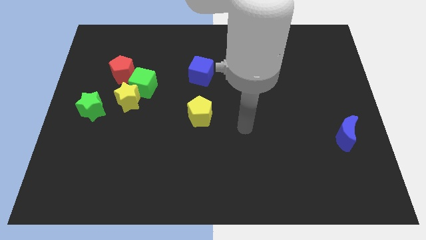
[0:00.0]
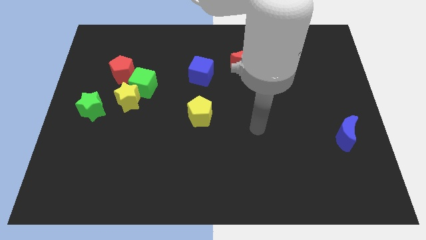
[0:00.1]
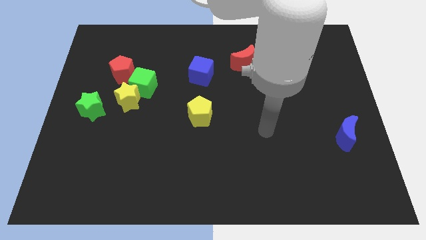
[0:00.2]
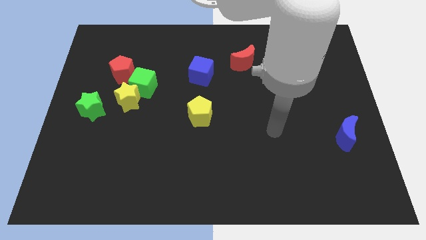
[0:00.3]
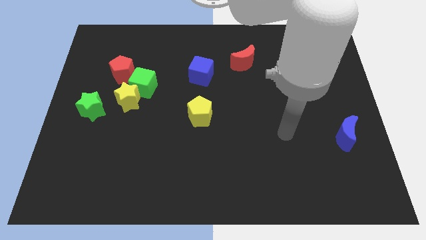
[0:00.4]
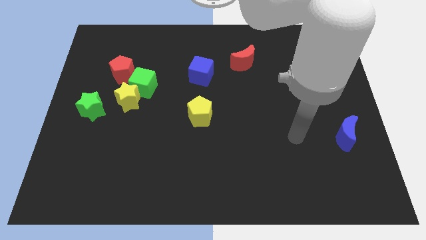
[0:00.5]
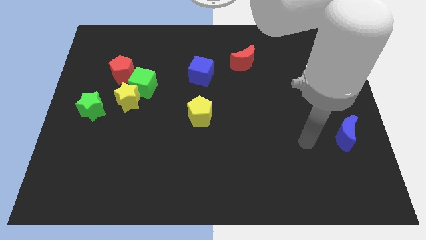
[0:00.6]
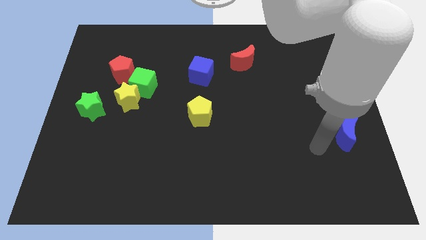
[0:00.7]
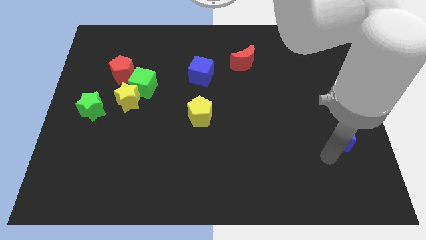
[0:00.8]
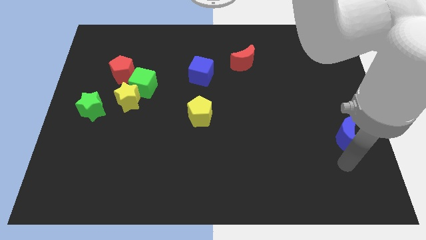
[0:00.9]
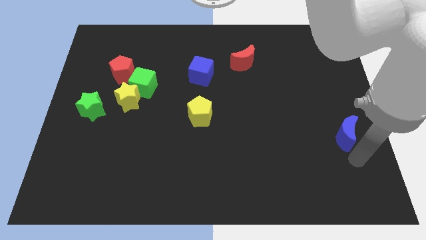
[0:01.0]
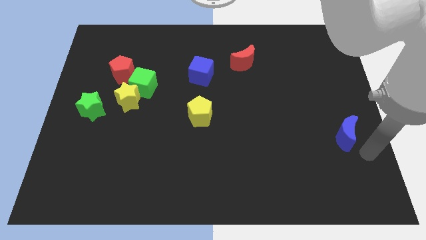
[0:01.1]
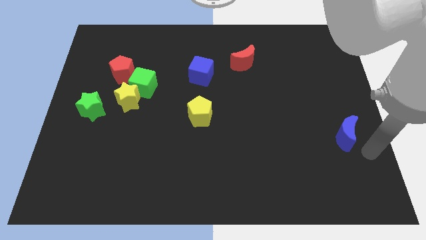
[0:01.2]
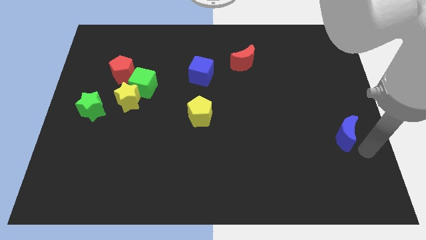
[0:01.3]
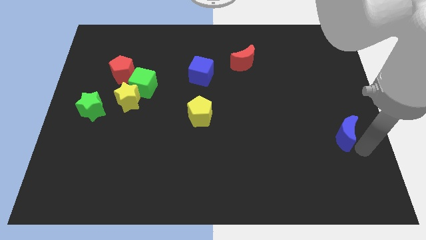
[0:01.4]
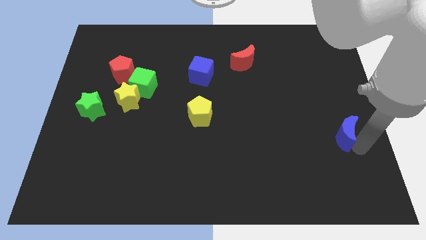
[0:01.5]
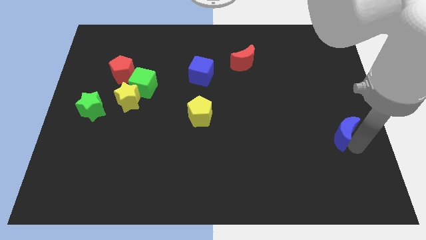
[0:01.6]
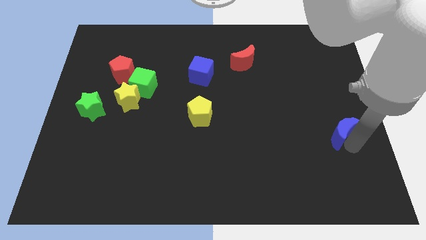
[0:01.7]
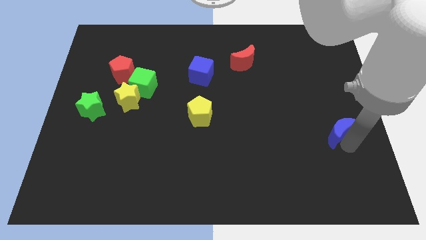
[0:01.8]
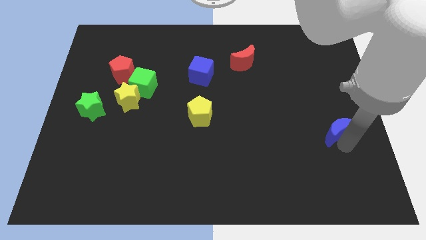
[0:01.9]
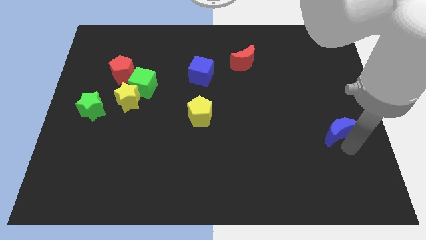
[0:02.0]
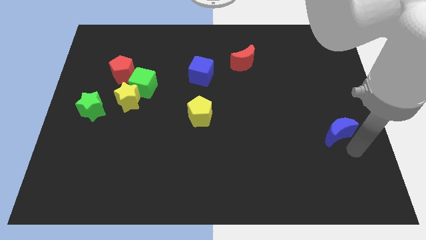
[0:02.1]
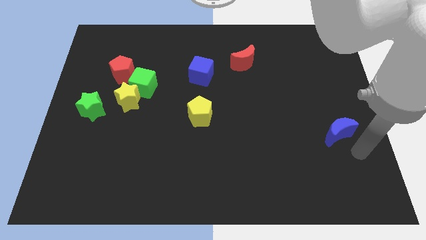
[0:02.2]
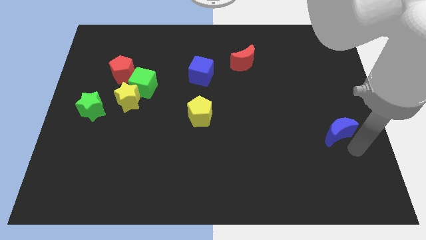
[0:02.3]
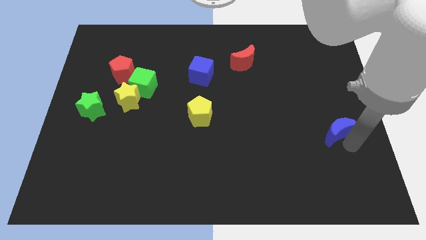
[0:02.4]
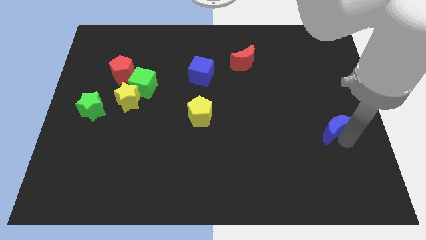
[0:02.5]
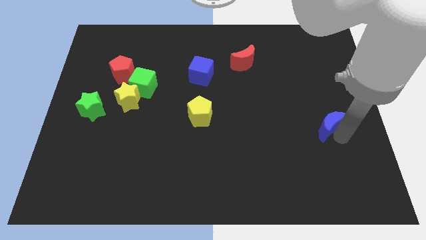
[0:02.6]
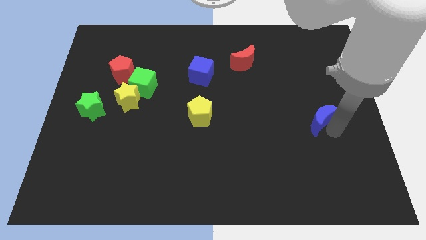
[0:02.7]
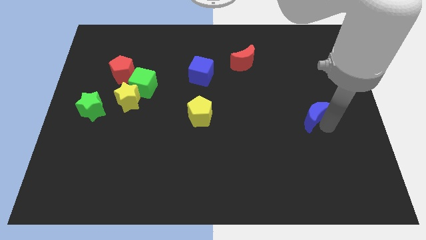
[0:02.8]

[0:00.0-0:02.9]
move the blue moon up and then left somewhat

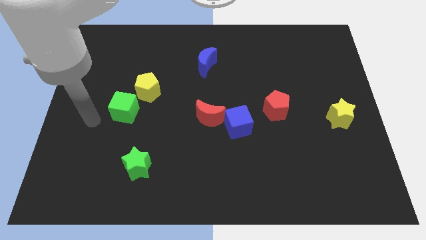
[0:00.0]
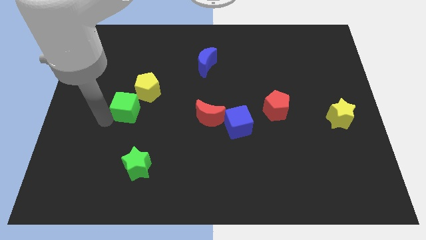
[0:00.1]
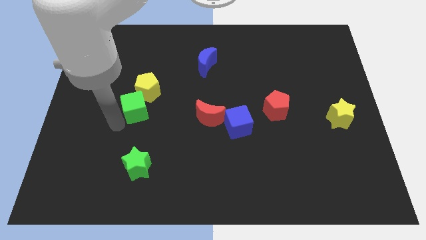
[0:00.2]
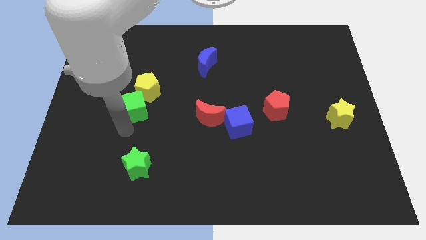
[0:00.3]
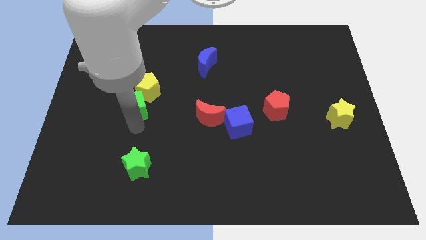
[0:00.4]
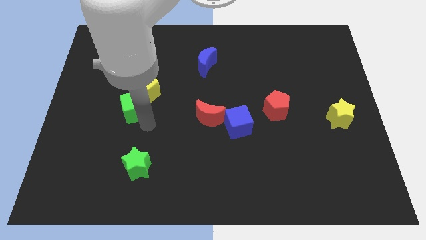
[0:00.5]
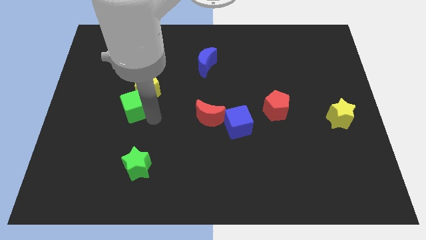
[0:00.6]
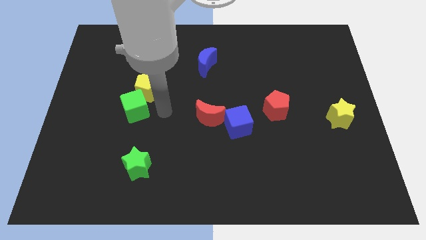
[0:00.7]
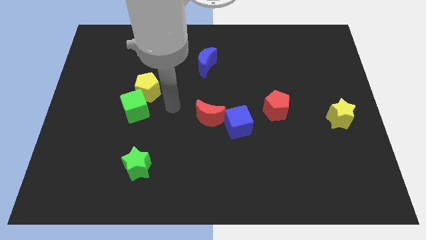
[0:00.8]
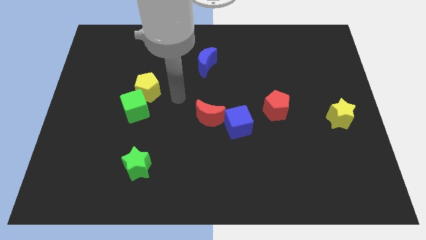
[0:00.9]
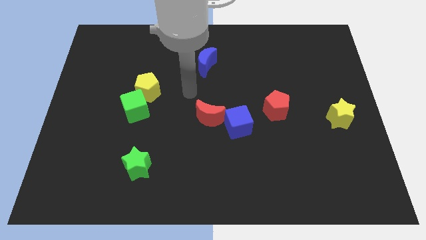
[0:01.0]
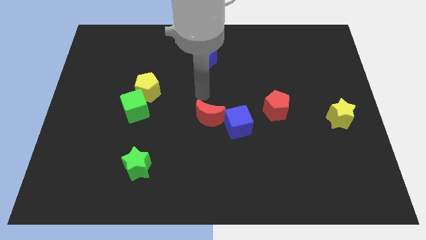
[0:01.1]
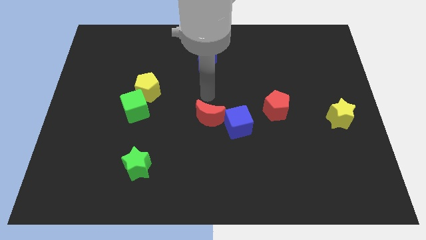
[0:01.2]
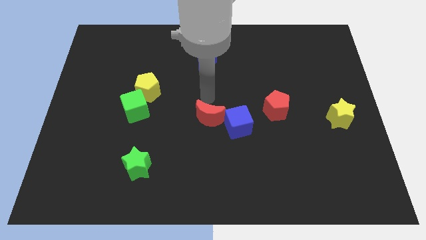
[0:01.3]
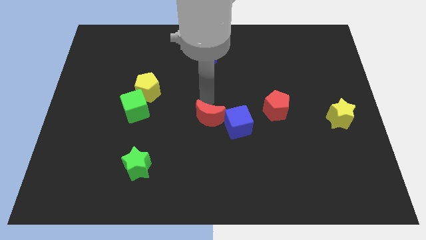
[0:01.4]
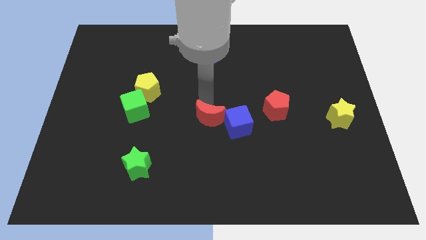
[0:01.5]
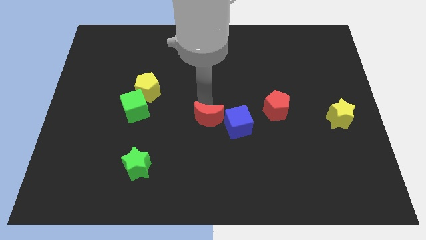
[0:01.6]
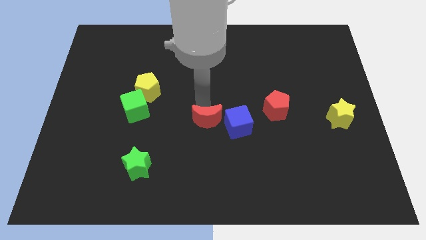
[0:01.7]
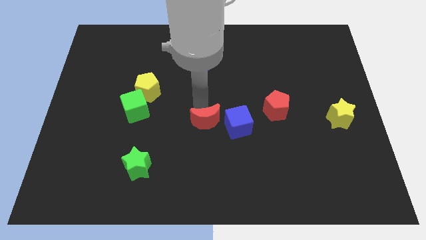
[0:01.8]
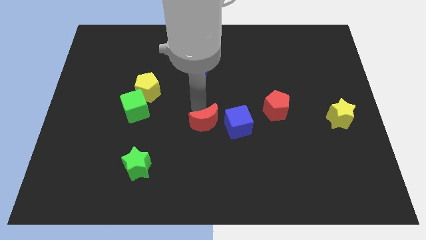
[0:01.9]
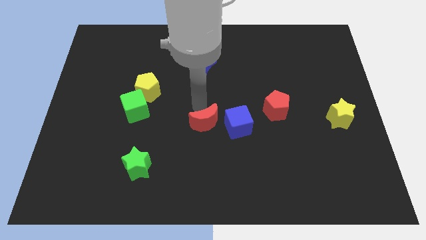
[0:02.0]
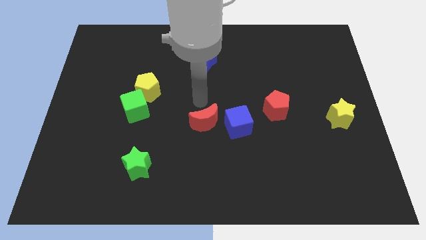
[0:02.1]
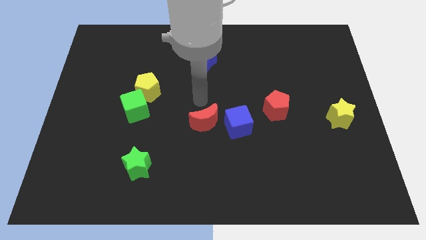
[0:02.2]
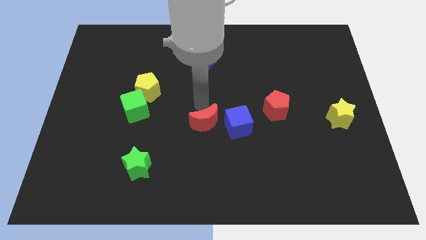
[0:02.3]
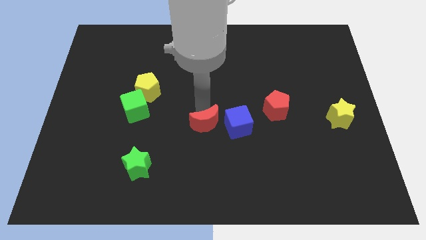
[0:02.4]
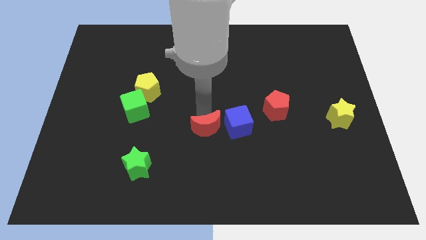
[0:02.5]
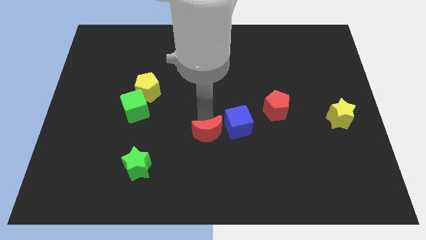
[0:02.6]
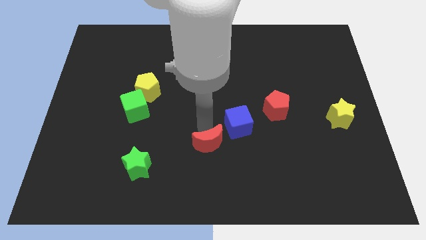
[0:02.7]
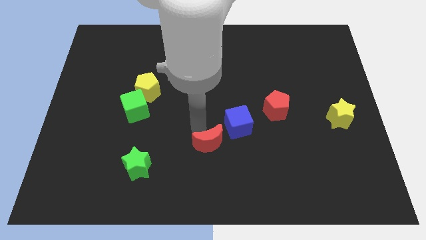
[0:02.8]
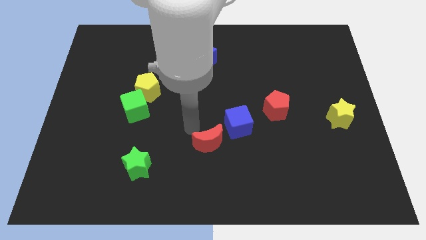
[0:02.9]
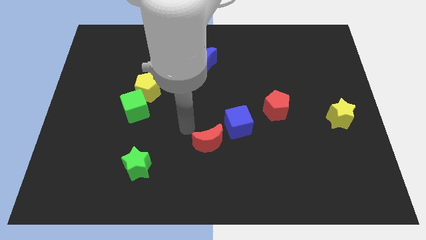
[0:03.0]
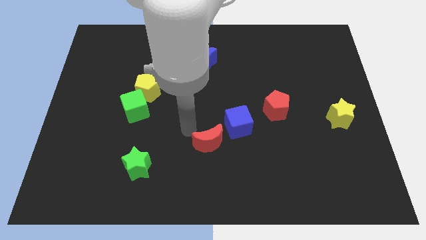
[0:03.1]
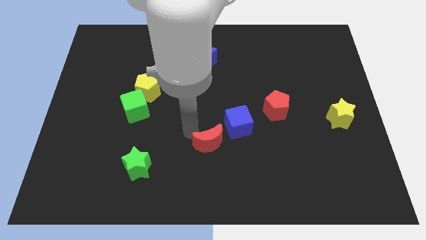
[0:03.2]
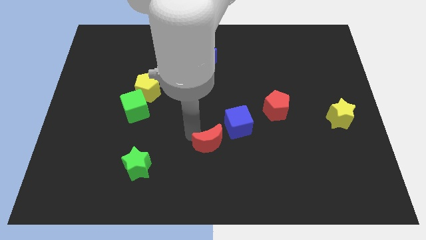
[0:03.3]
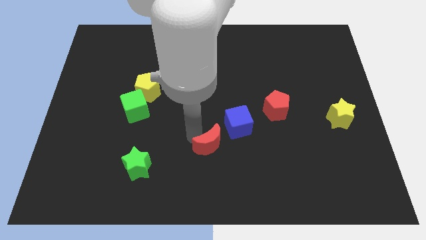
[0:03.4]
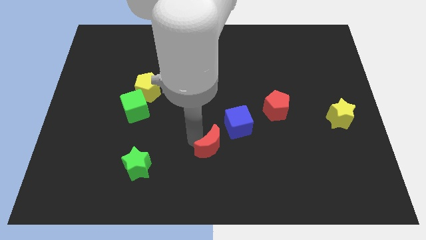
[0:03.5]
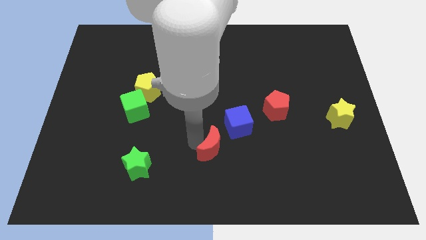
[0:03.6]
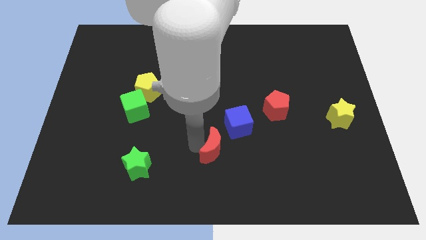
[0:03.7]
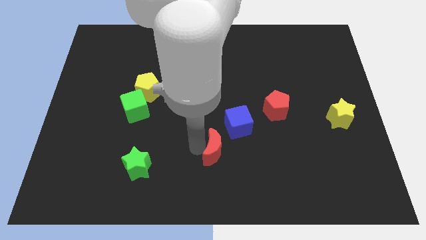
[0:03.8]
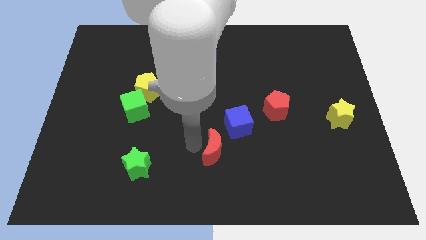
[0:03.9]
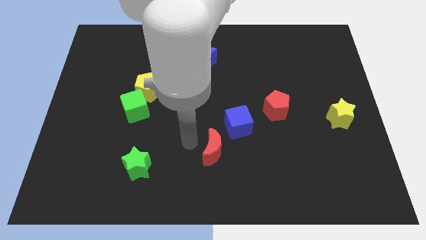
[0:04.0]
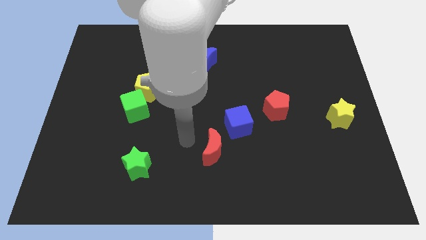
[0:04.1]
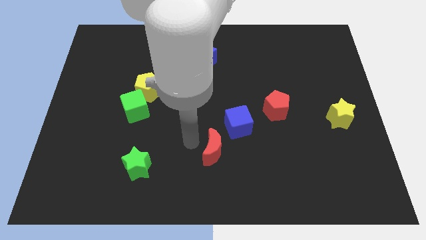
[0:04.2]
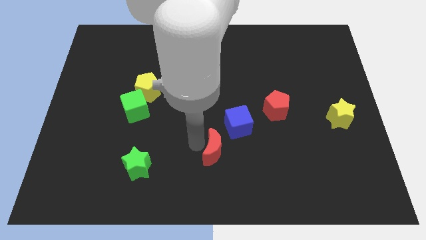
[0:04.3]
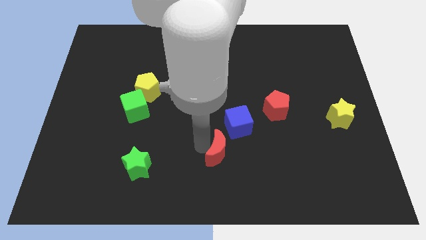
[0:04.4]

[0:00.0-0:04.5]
slightly slide the red moon downwards and to the right diagonally

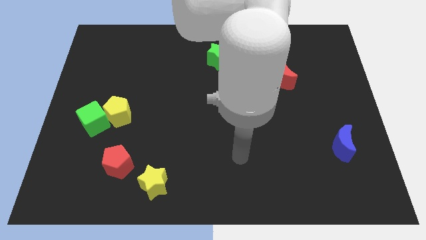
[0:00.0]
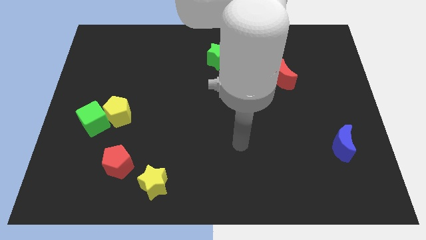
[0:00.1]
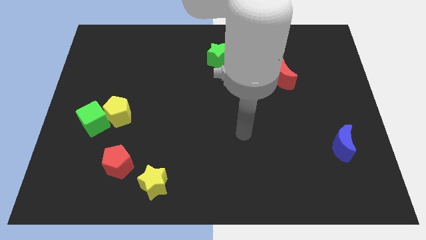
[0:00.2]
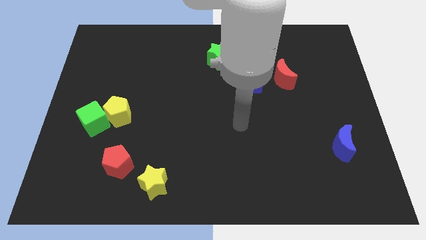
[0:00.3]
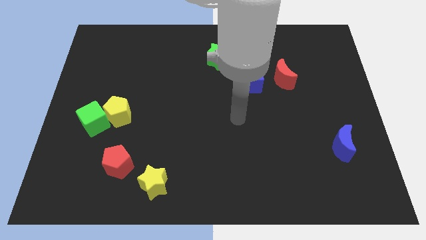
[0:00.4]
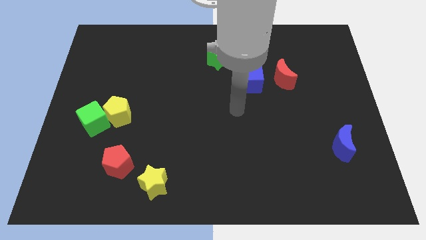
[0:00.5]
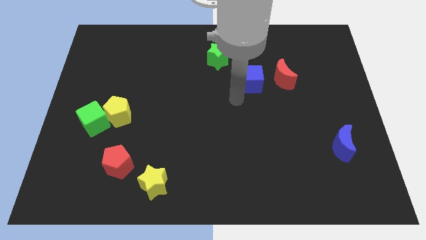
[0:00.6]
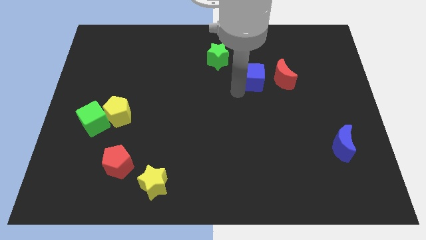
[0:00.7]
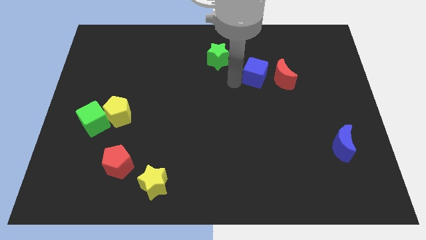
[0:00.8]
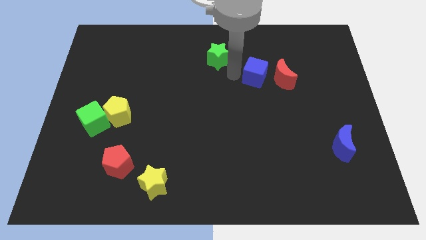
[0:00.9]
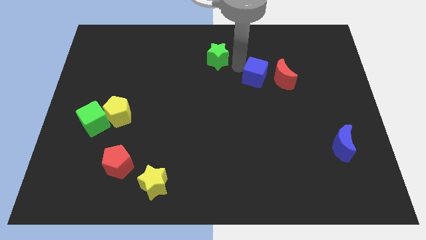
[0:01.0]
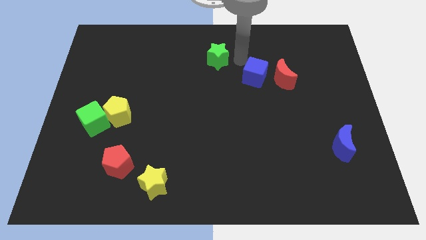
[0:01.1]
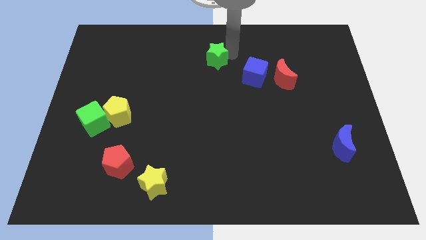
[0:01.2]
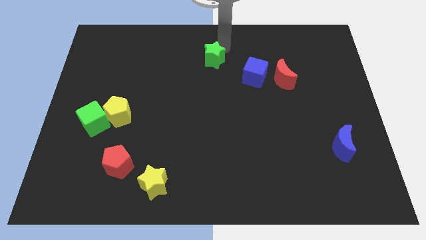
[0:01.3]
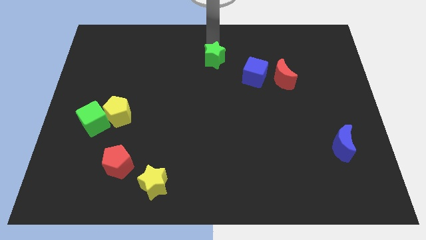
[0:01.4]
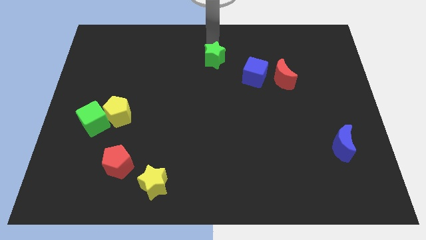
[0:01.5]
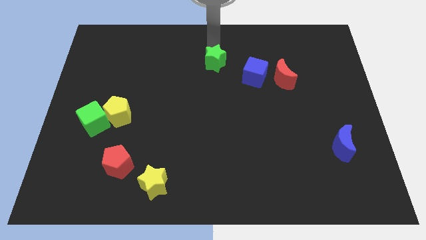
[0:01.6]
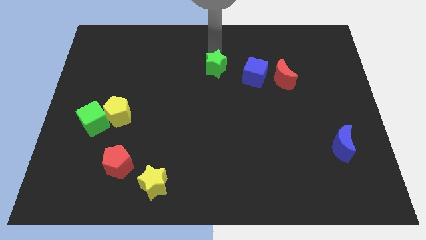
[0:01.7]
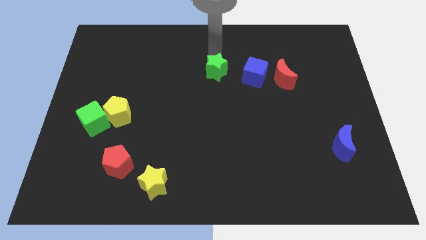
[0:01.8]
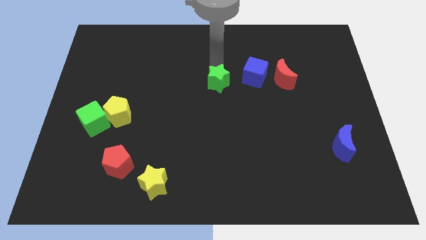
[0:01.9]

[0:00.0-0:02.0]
push the green star a bit down
